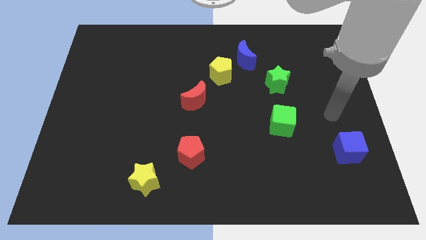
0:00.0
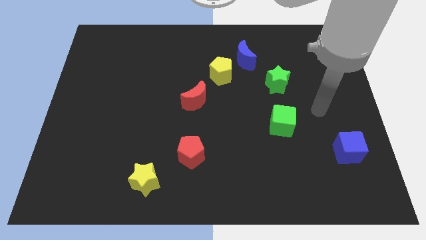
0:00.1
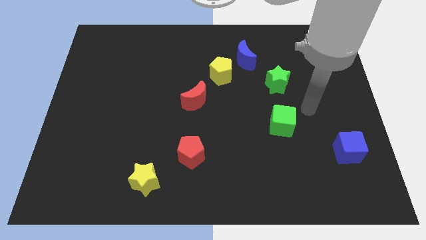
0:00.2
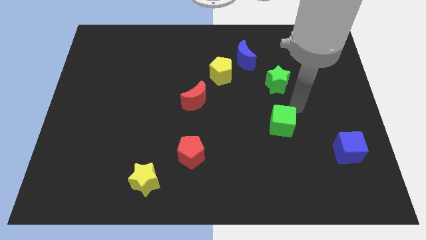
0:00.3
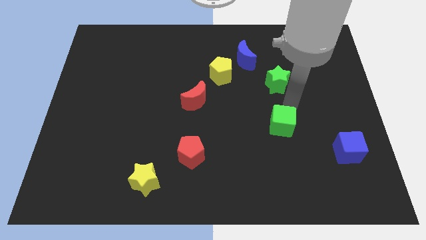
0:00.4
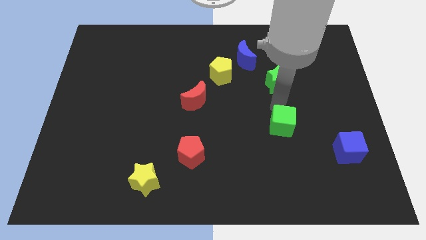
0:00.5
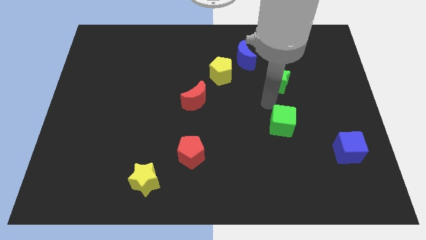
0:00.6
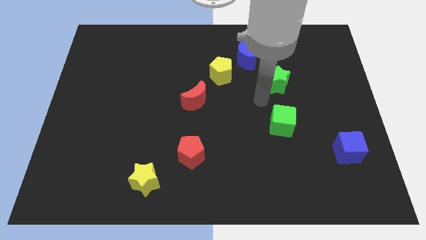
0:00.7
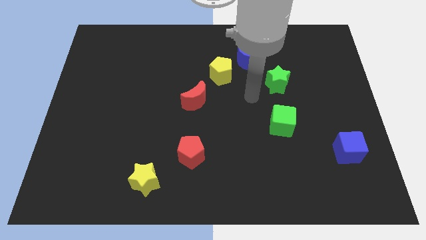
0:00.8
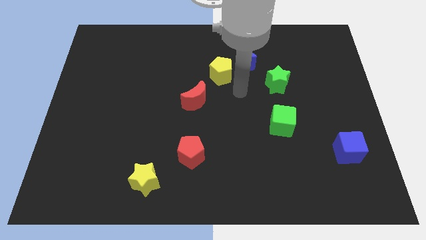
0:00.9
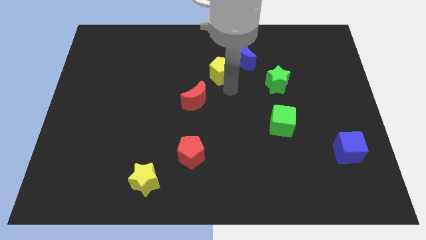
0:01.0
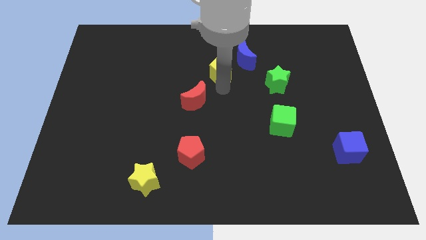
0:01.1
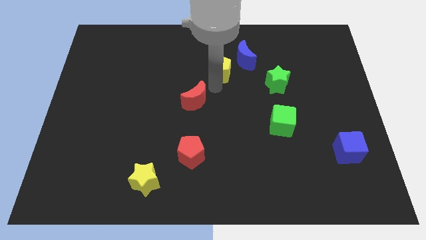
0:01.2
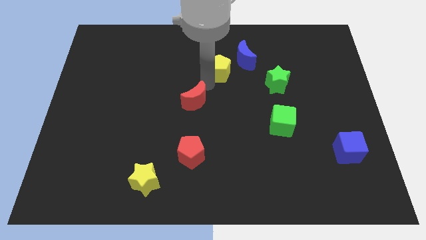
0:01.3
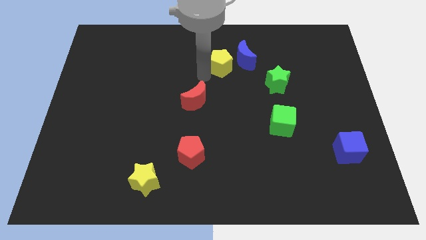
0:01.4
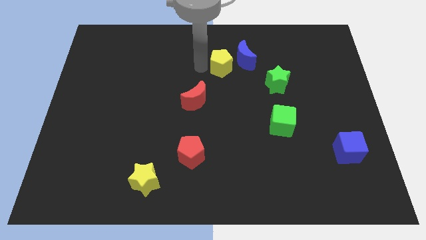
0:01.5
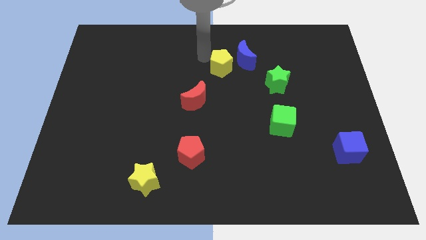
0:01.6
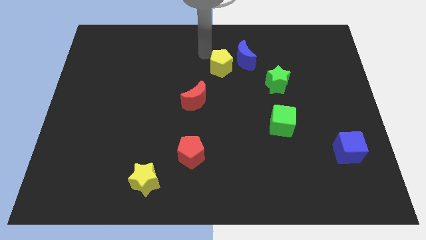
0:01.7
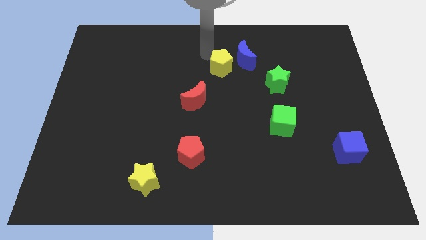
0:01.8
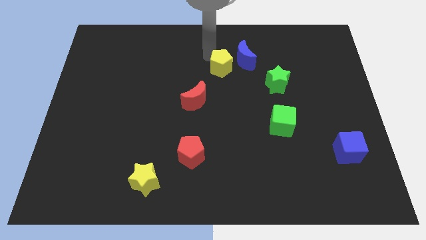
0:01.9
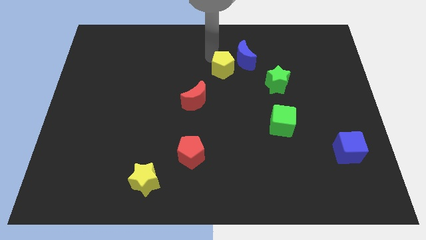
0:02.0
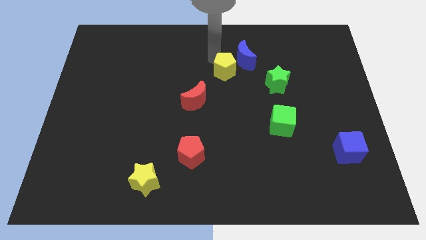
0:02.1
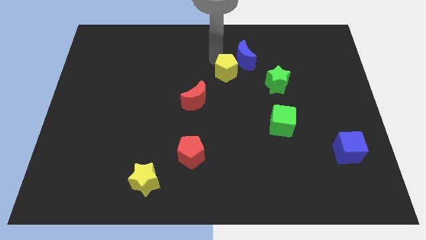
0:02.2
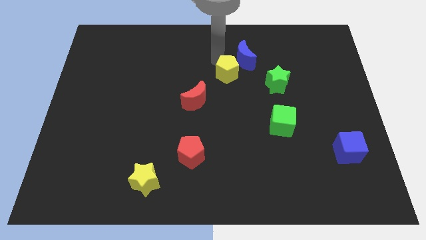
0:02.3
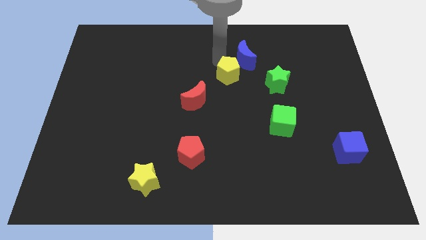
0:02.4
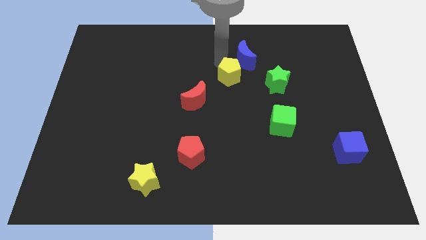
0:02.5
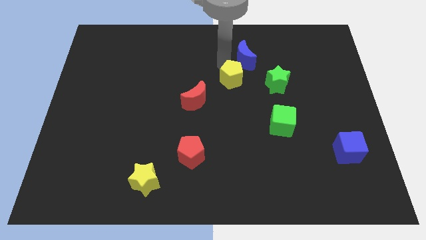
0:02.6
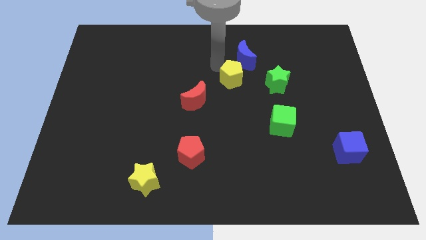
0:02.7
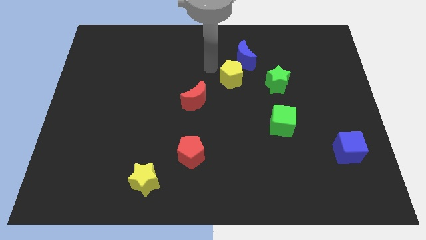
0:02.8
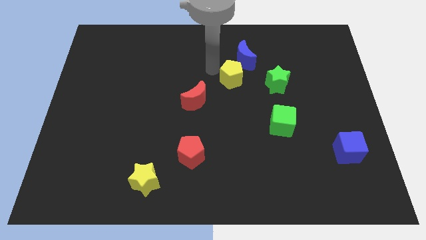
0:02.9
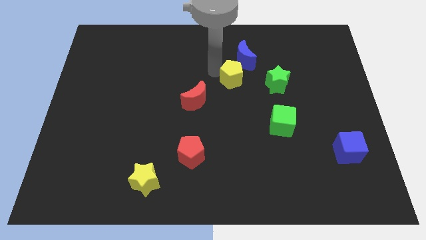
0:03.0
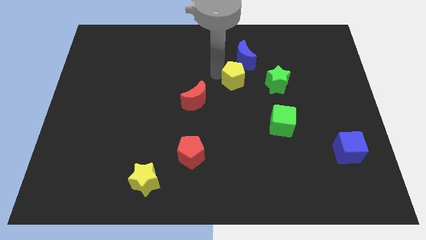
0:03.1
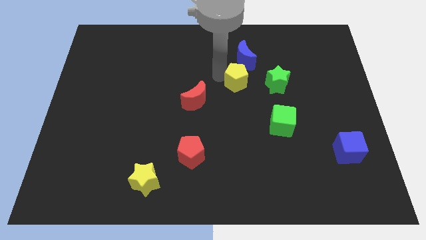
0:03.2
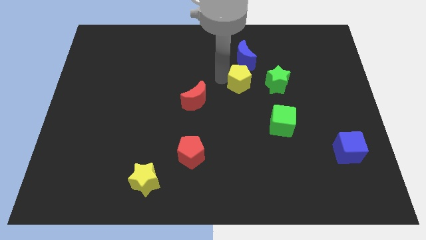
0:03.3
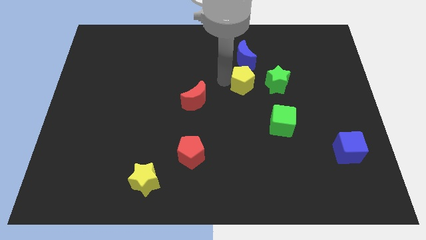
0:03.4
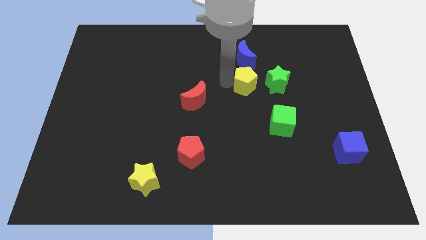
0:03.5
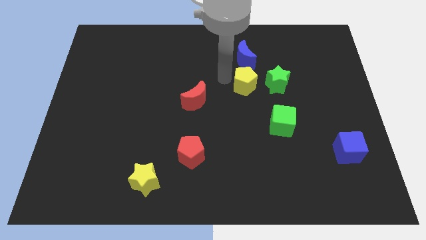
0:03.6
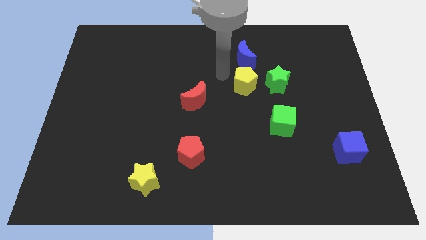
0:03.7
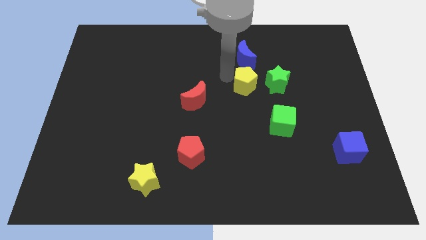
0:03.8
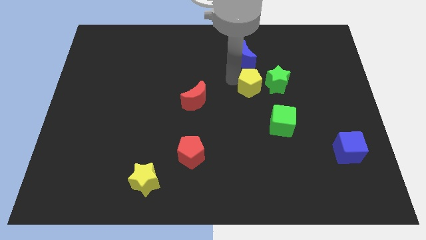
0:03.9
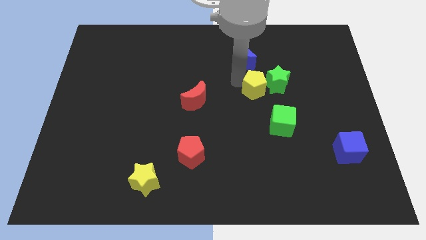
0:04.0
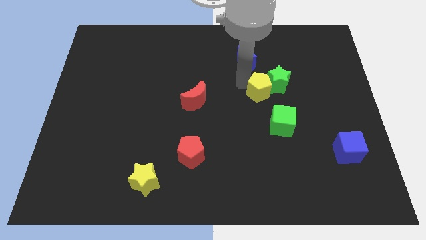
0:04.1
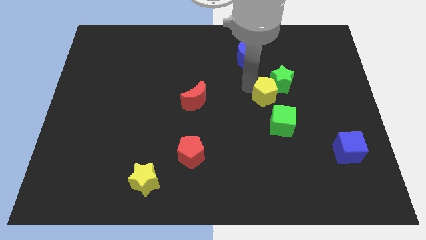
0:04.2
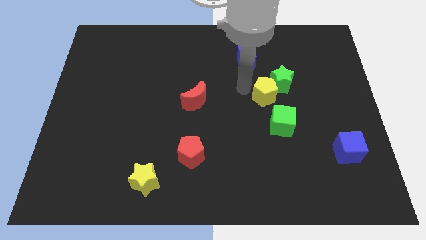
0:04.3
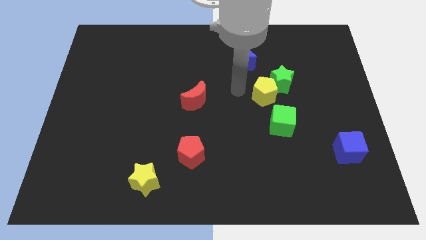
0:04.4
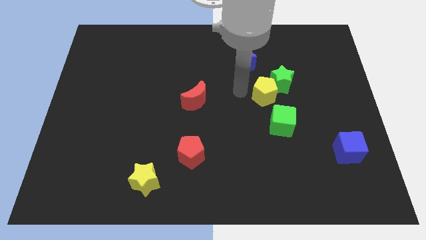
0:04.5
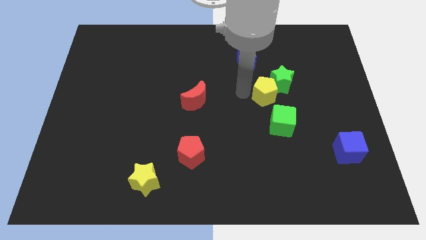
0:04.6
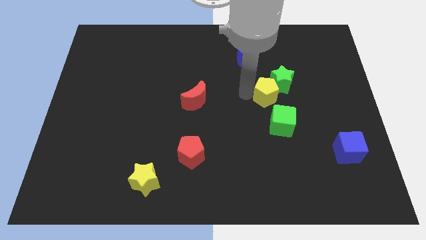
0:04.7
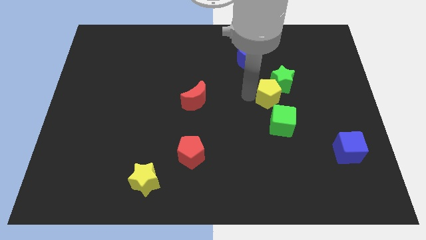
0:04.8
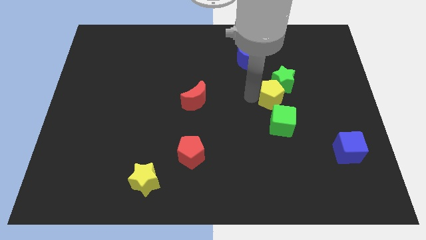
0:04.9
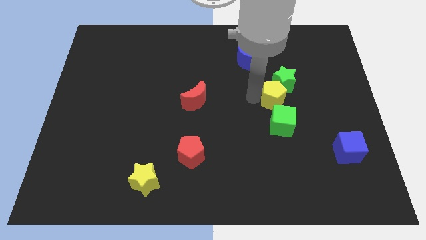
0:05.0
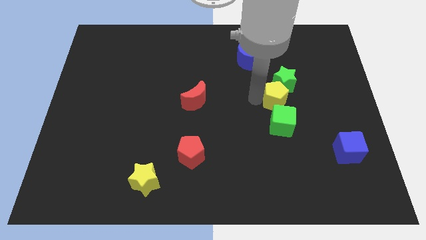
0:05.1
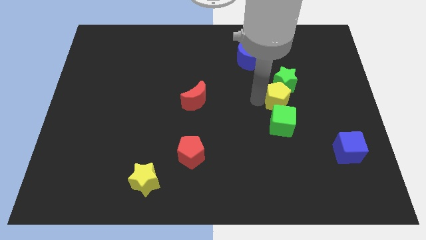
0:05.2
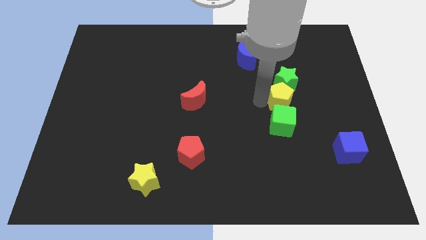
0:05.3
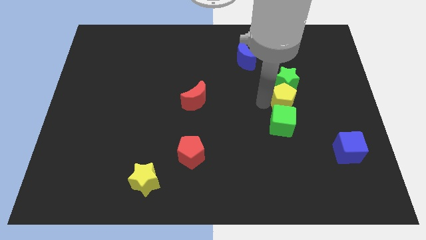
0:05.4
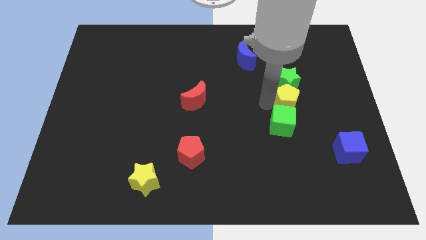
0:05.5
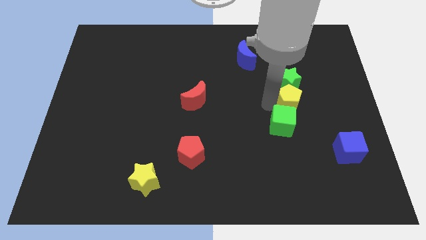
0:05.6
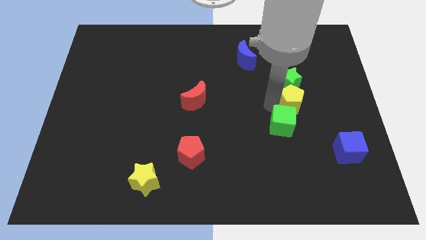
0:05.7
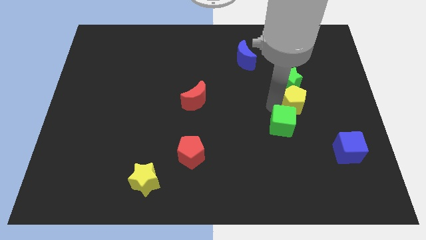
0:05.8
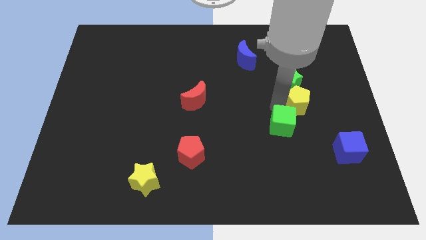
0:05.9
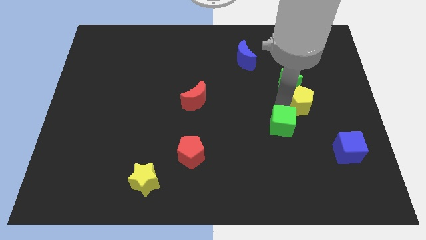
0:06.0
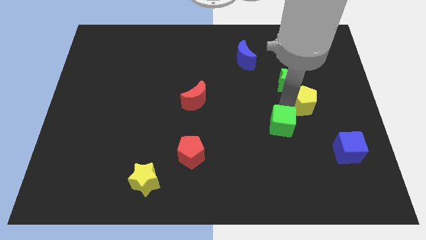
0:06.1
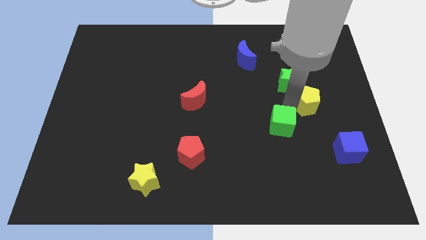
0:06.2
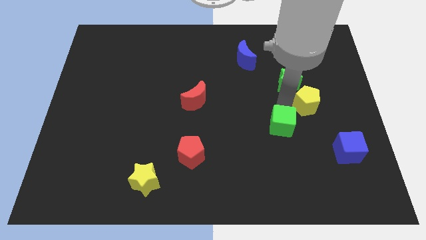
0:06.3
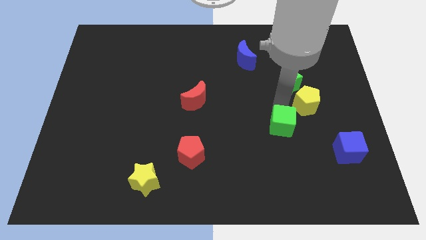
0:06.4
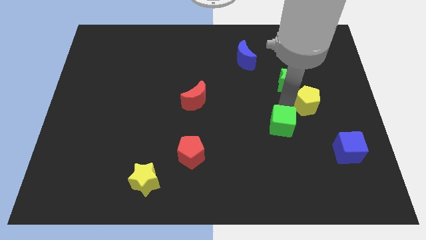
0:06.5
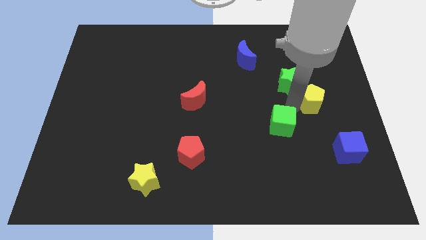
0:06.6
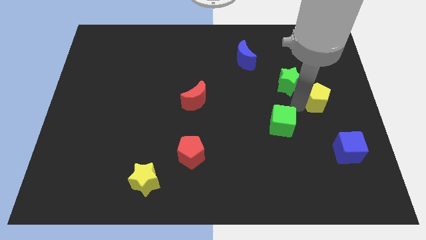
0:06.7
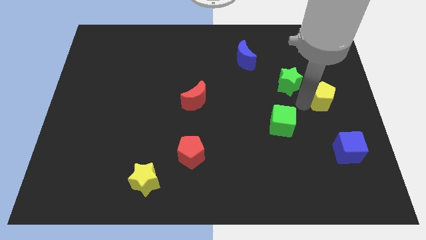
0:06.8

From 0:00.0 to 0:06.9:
put the yellow pentagon to the center right
